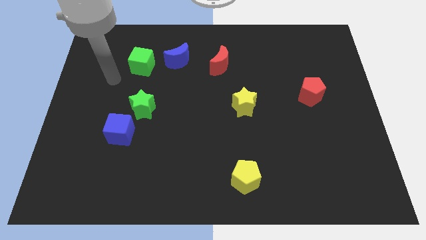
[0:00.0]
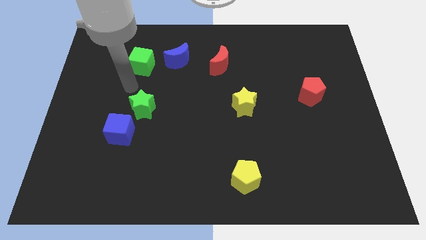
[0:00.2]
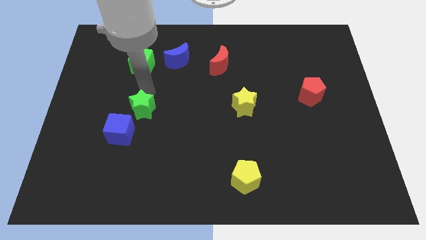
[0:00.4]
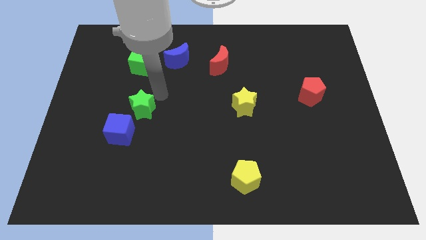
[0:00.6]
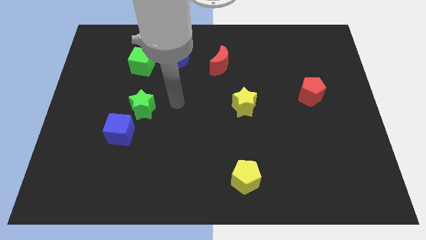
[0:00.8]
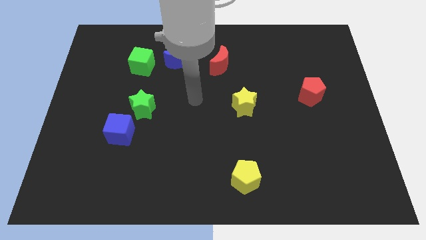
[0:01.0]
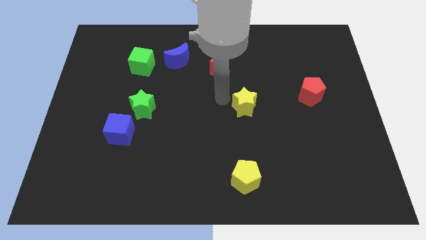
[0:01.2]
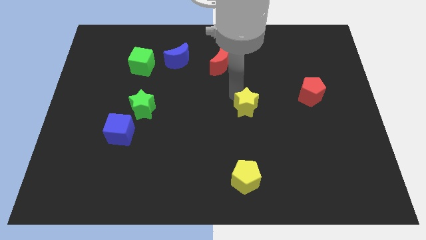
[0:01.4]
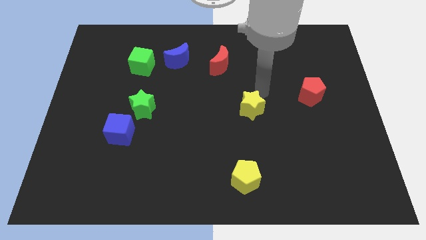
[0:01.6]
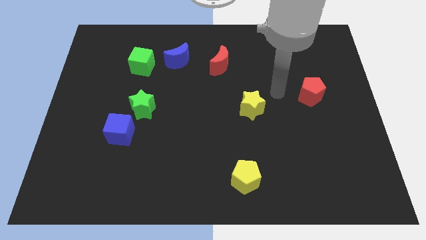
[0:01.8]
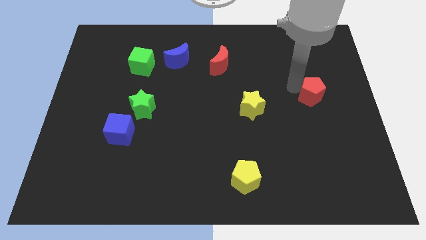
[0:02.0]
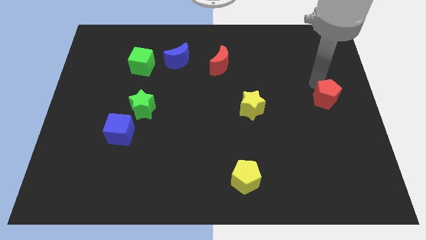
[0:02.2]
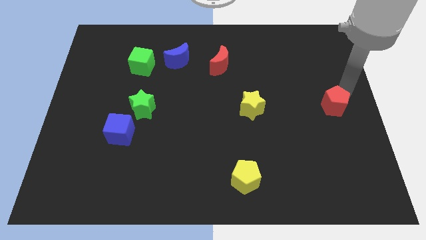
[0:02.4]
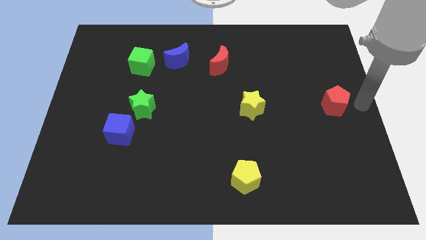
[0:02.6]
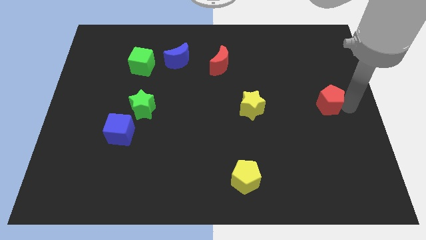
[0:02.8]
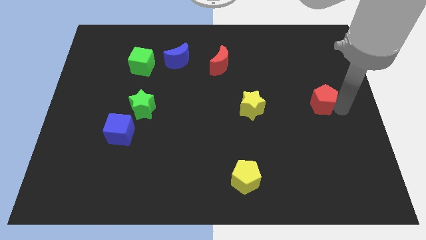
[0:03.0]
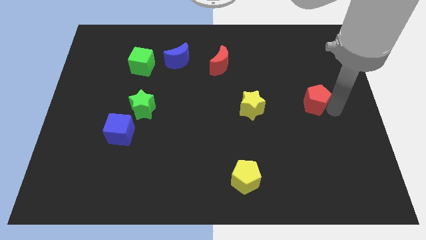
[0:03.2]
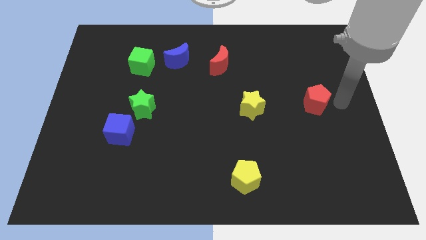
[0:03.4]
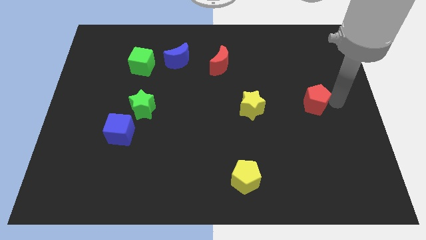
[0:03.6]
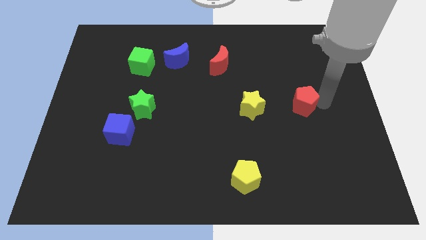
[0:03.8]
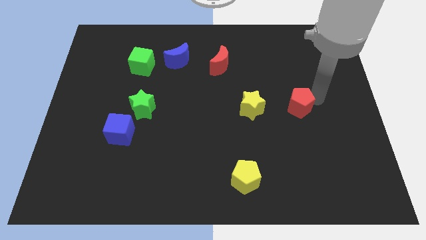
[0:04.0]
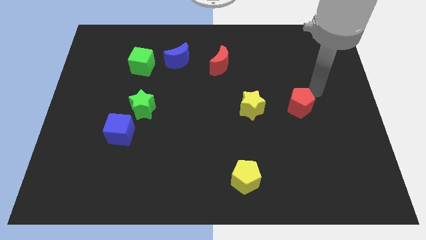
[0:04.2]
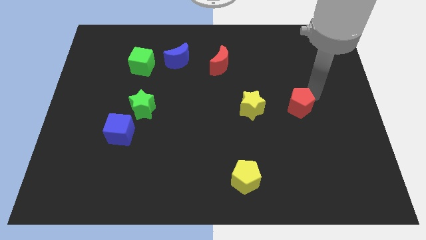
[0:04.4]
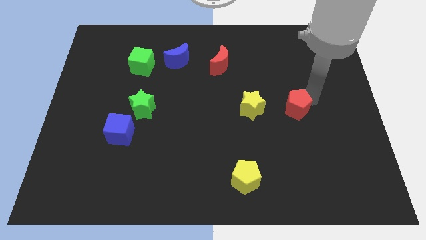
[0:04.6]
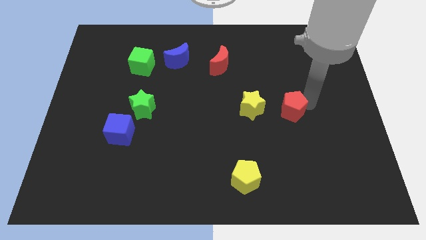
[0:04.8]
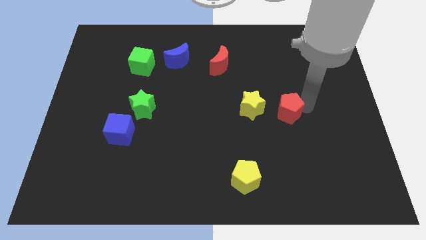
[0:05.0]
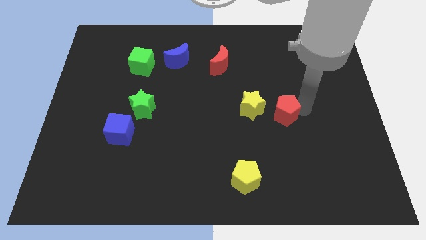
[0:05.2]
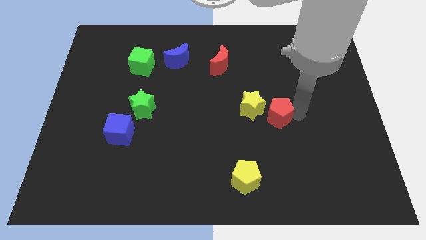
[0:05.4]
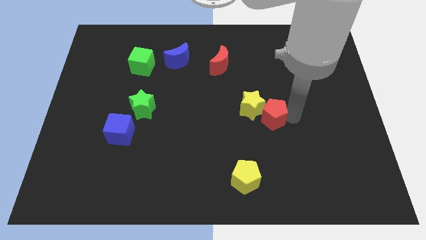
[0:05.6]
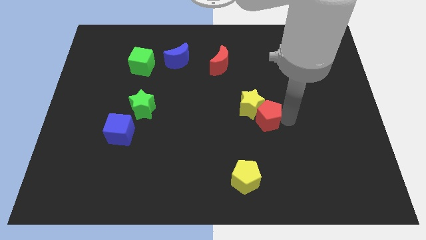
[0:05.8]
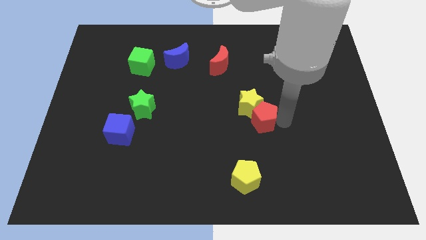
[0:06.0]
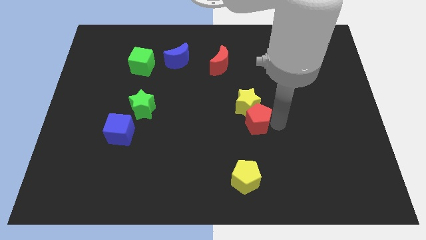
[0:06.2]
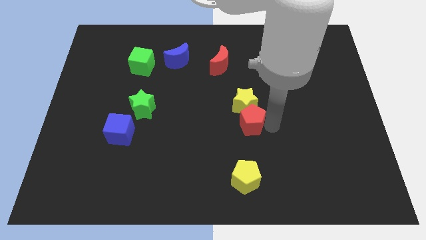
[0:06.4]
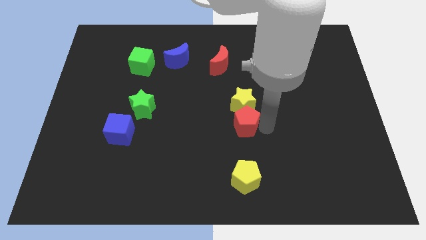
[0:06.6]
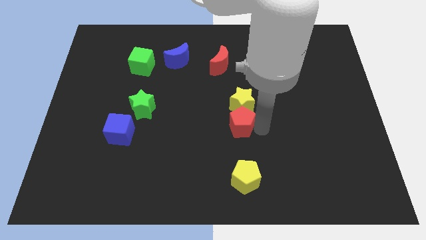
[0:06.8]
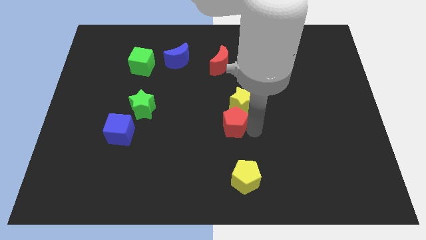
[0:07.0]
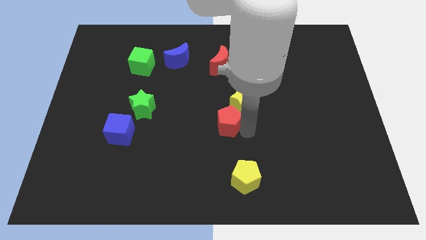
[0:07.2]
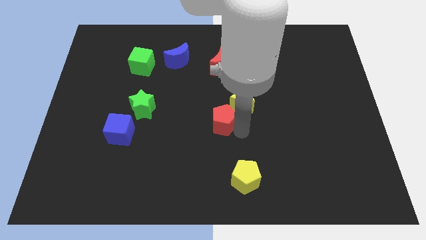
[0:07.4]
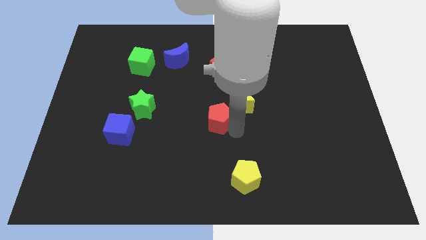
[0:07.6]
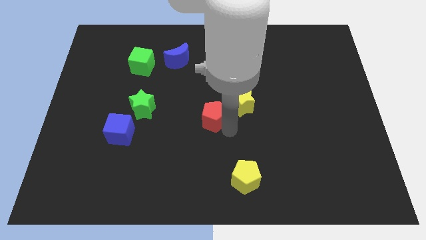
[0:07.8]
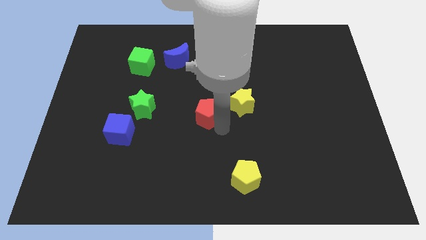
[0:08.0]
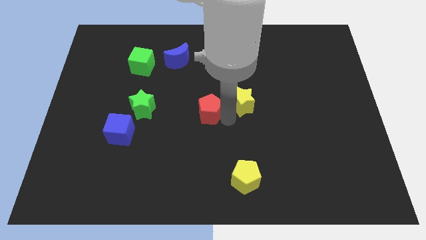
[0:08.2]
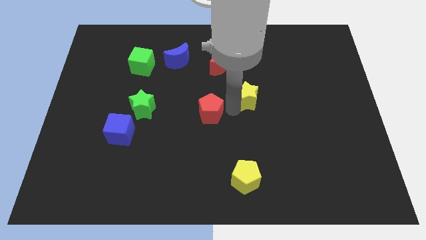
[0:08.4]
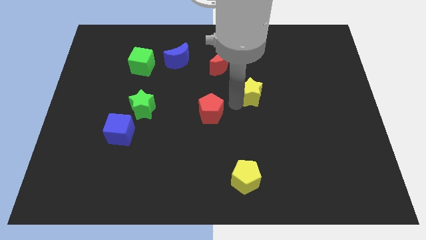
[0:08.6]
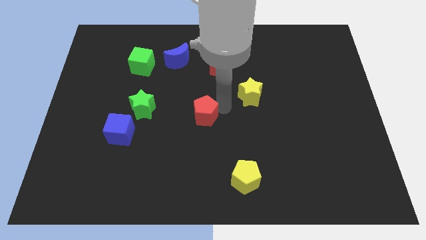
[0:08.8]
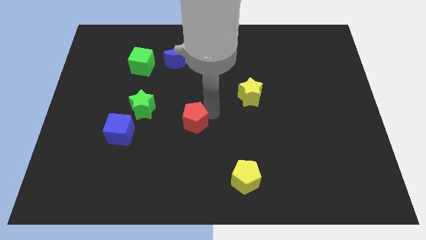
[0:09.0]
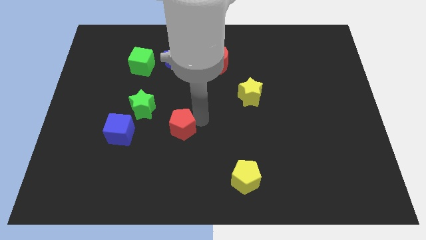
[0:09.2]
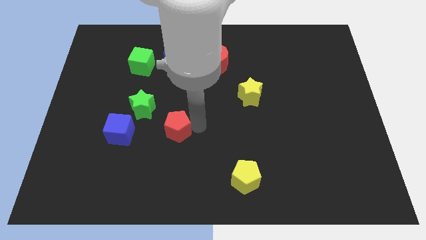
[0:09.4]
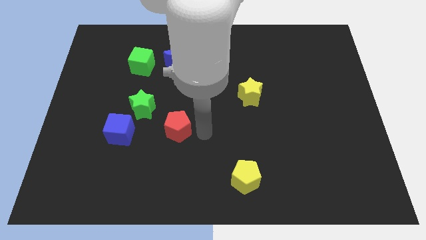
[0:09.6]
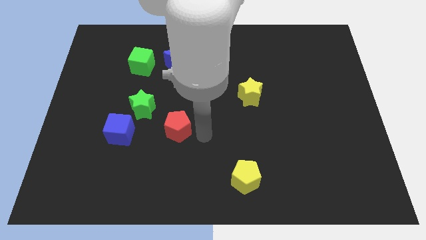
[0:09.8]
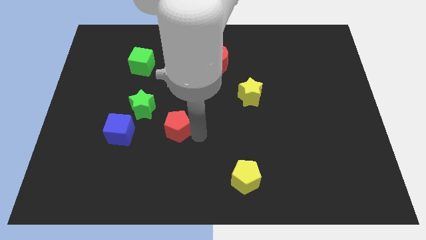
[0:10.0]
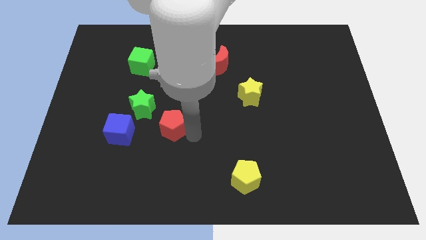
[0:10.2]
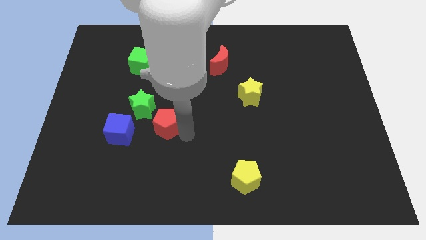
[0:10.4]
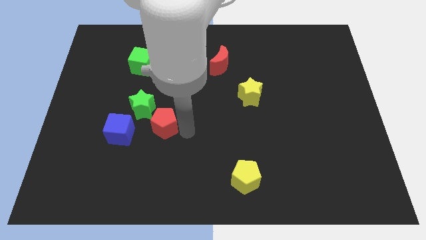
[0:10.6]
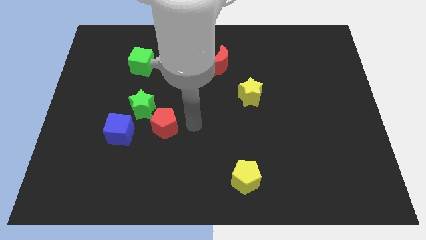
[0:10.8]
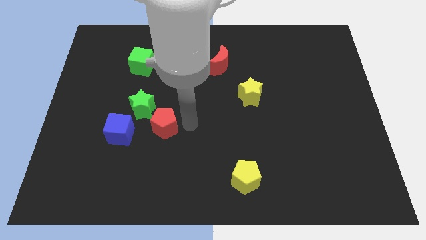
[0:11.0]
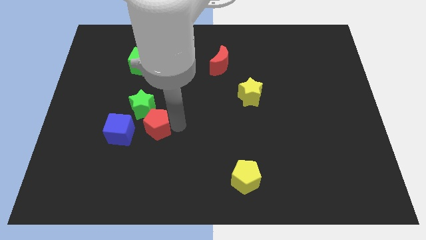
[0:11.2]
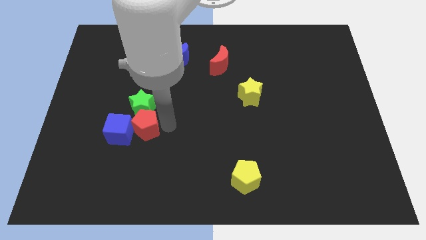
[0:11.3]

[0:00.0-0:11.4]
put the red pentagon to the blue cube

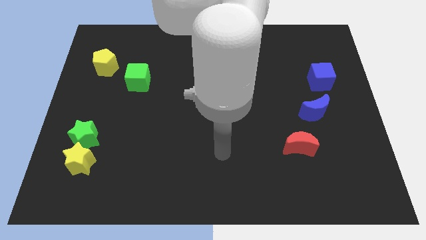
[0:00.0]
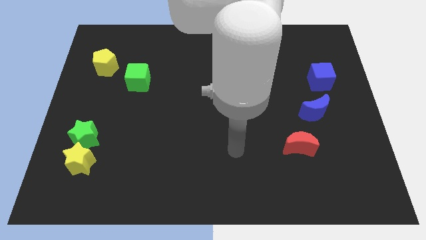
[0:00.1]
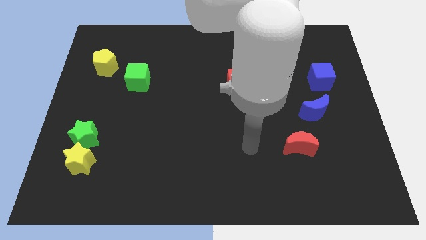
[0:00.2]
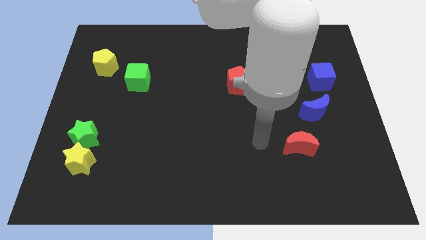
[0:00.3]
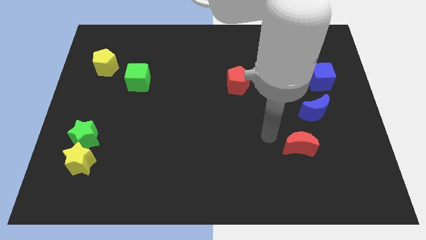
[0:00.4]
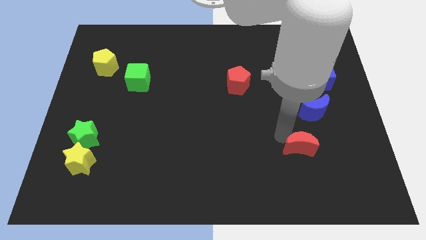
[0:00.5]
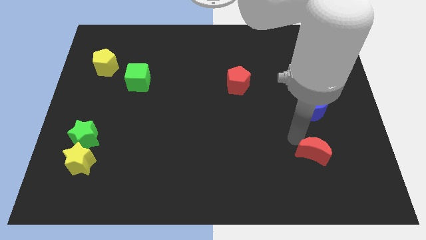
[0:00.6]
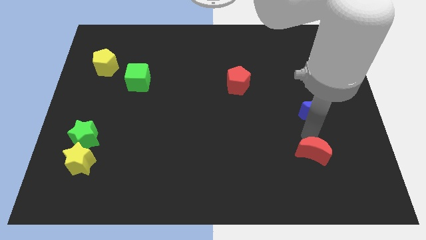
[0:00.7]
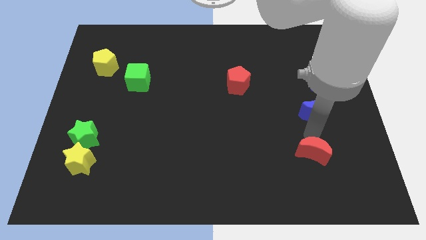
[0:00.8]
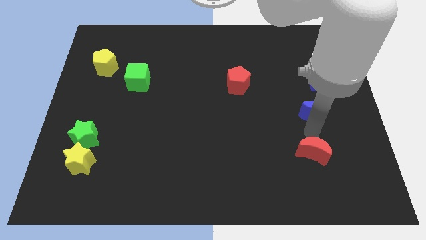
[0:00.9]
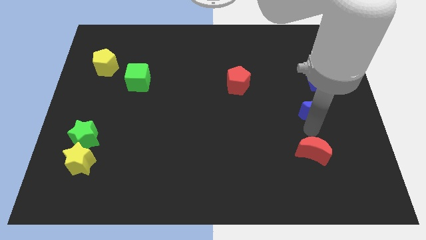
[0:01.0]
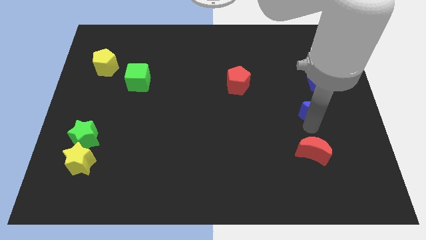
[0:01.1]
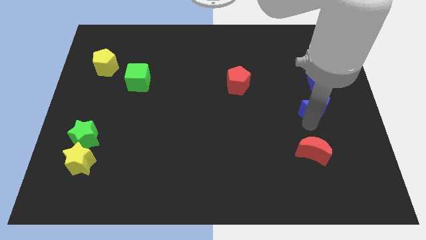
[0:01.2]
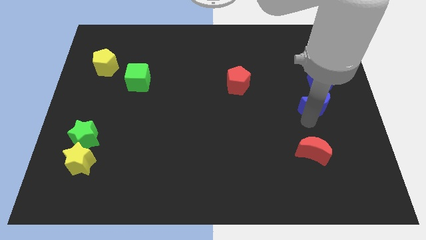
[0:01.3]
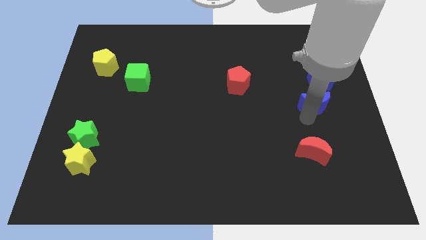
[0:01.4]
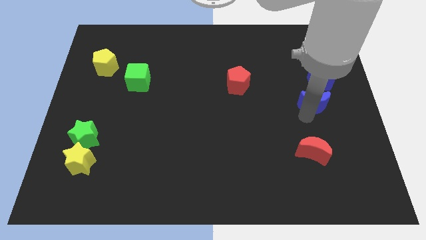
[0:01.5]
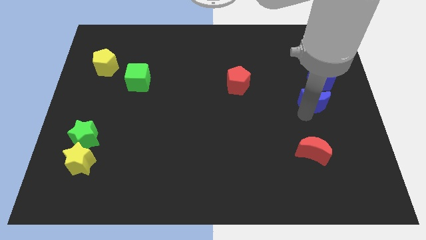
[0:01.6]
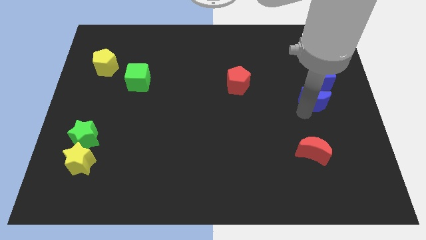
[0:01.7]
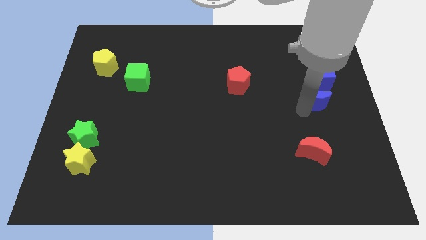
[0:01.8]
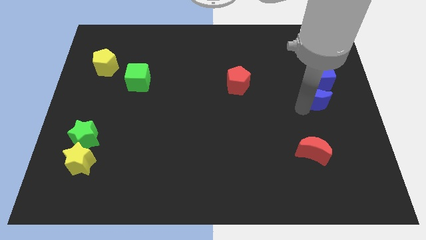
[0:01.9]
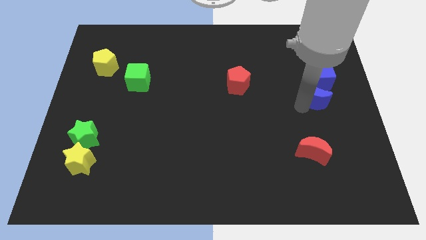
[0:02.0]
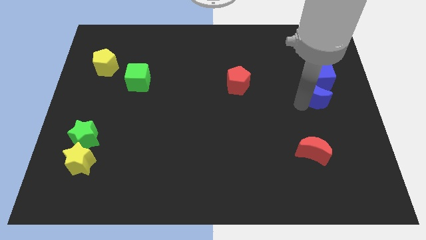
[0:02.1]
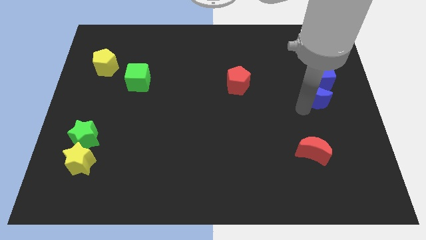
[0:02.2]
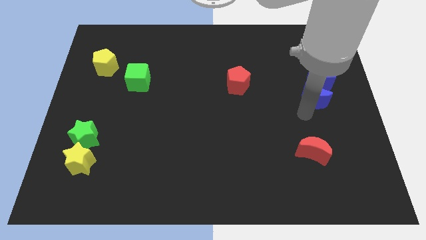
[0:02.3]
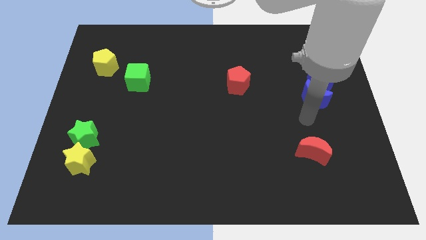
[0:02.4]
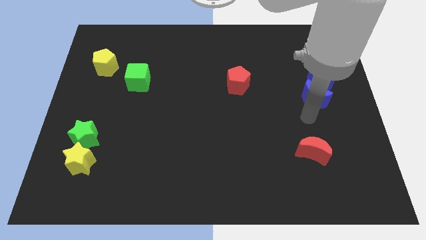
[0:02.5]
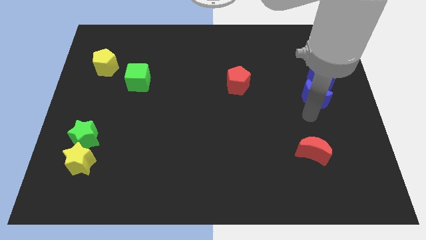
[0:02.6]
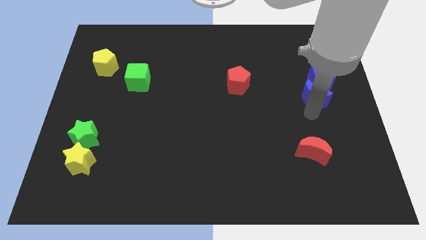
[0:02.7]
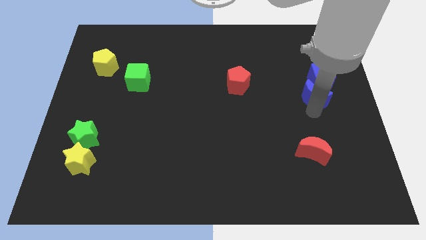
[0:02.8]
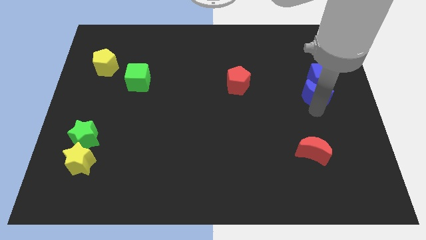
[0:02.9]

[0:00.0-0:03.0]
move the blue moon towards the blue cube
